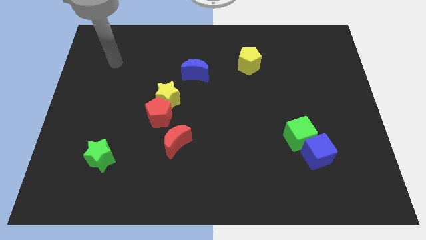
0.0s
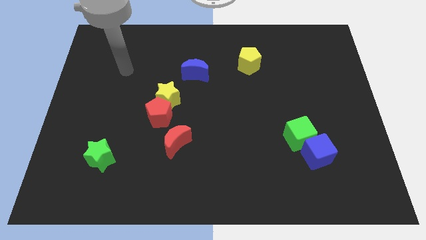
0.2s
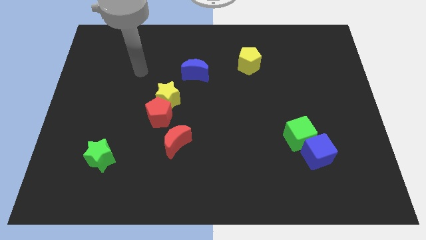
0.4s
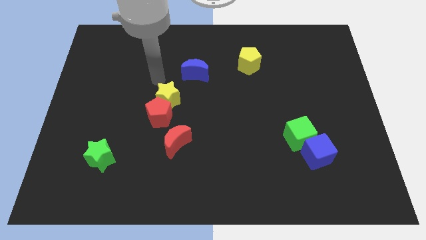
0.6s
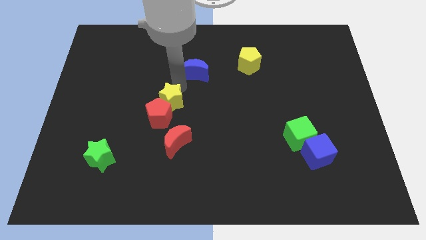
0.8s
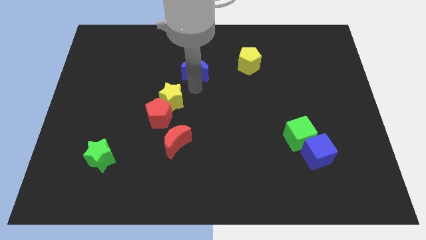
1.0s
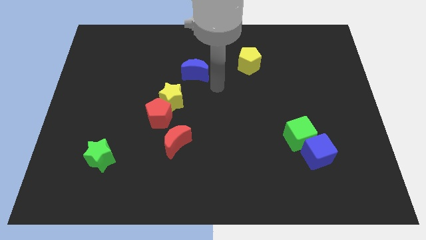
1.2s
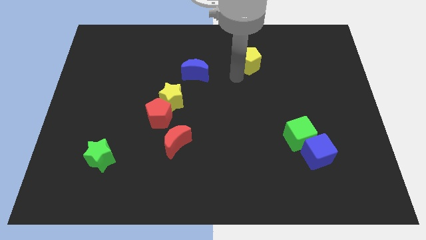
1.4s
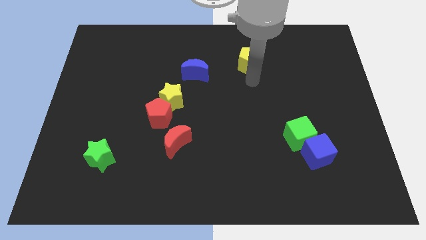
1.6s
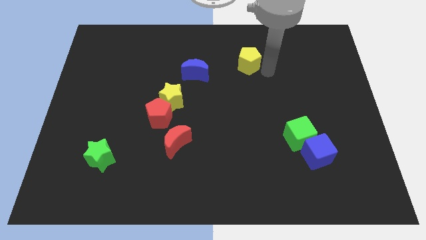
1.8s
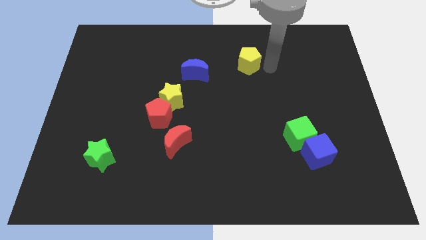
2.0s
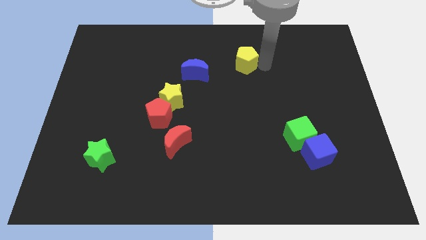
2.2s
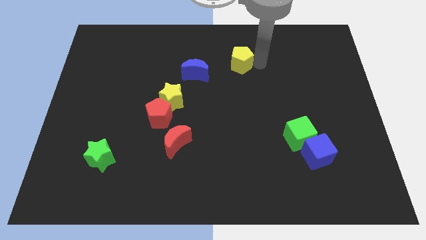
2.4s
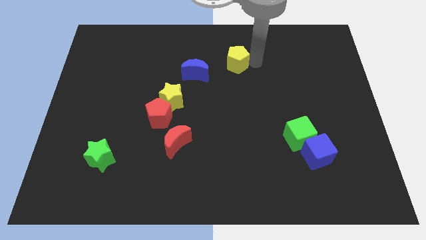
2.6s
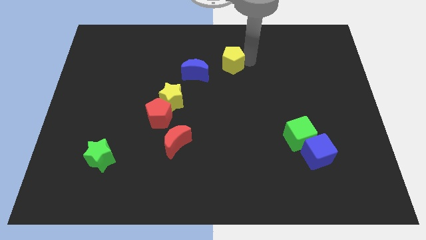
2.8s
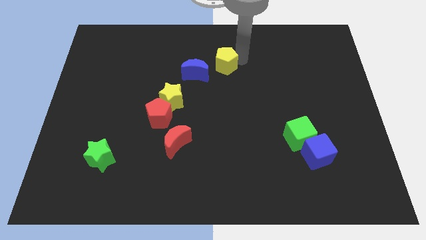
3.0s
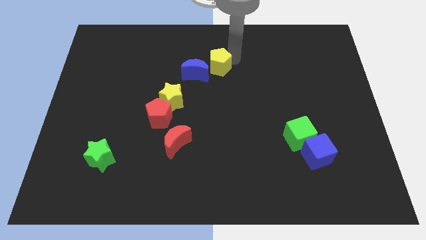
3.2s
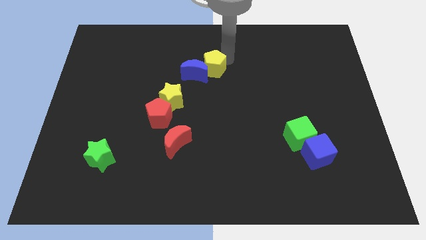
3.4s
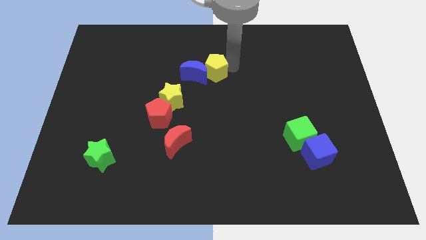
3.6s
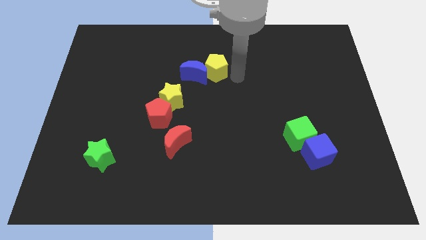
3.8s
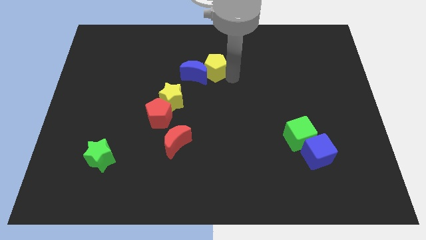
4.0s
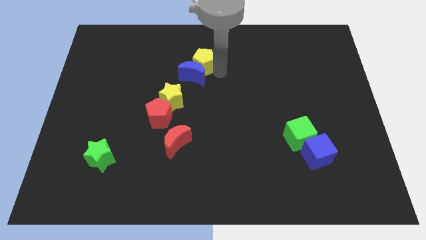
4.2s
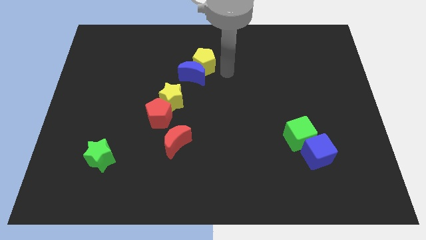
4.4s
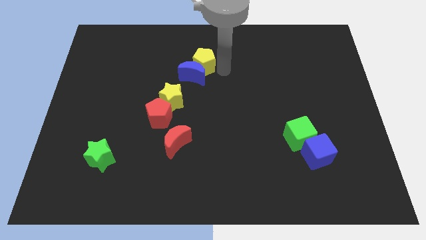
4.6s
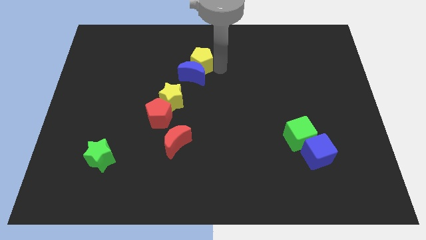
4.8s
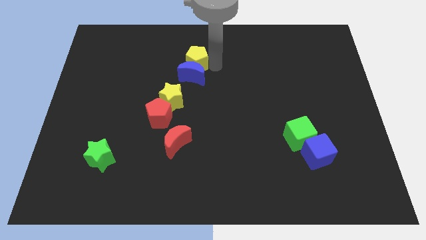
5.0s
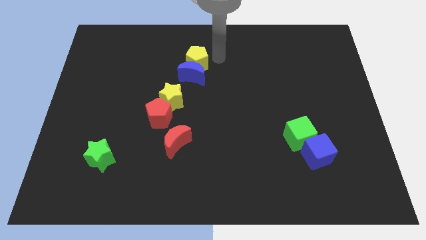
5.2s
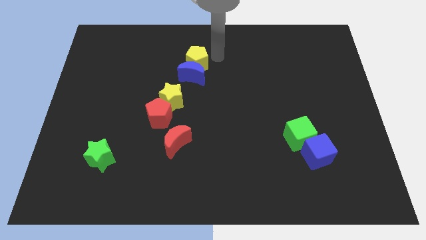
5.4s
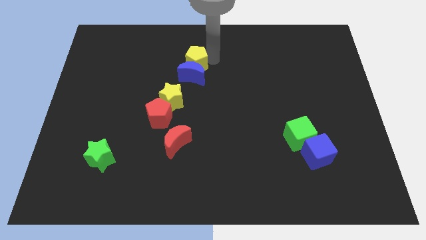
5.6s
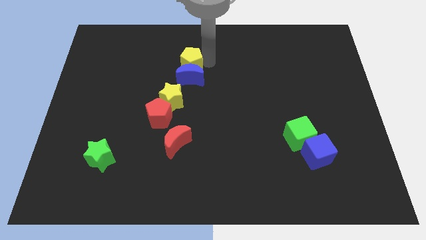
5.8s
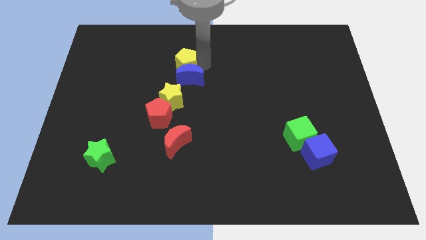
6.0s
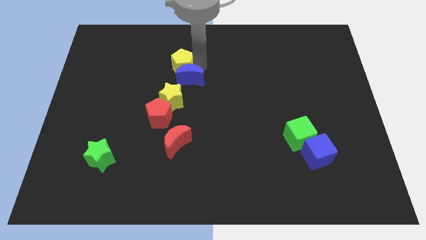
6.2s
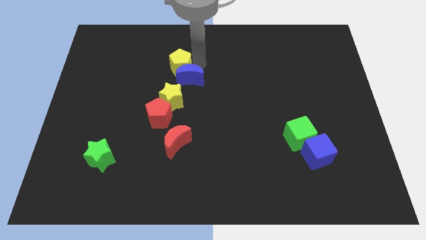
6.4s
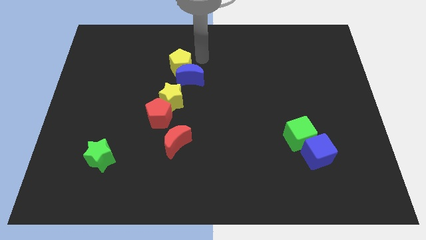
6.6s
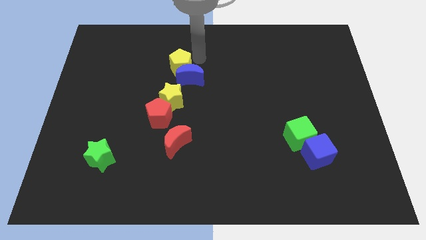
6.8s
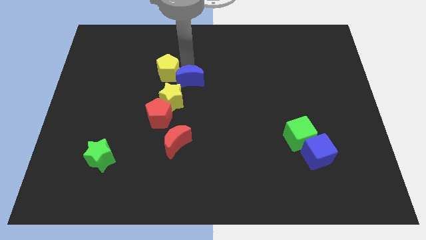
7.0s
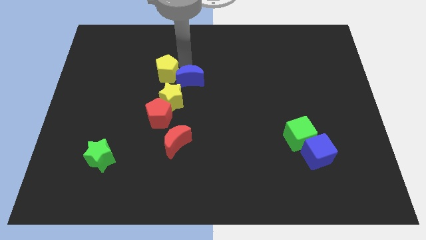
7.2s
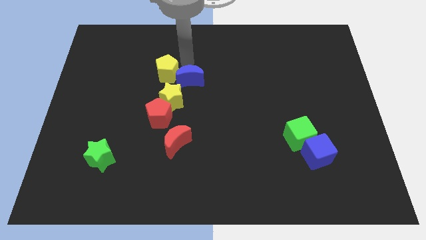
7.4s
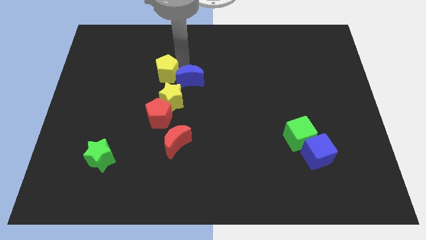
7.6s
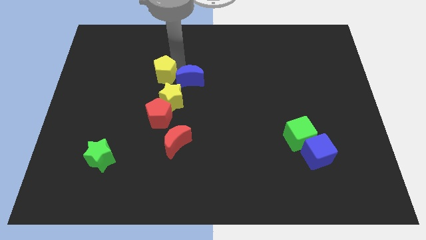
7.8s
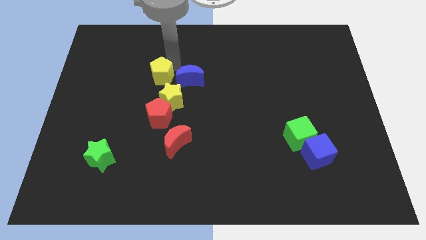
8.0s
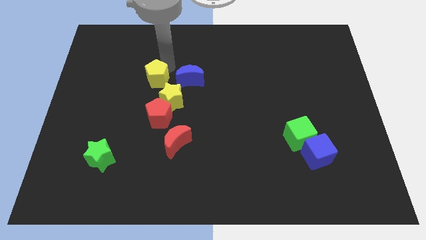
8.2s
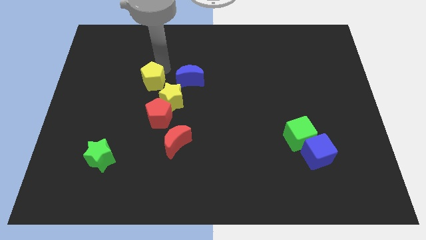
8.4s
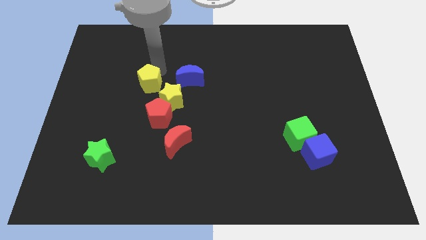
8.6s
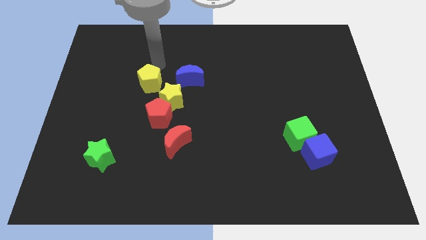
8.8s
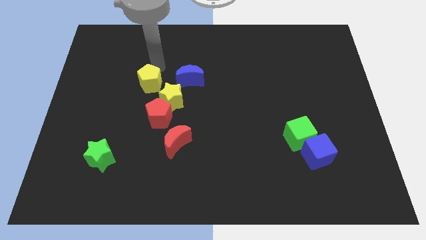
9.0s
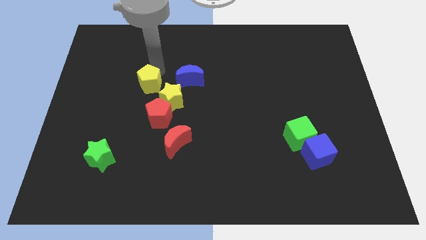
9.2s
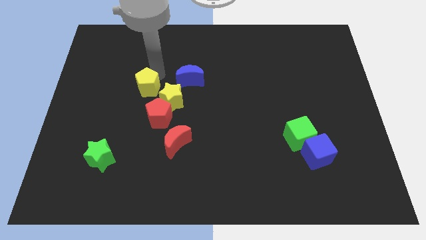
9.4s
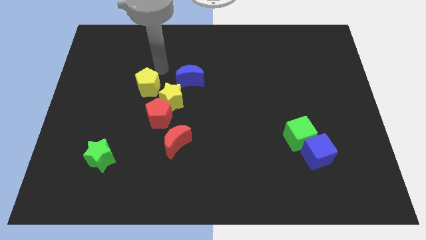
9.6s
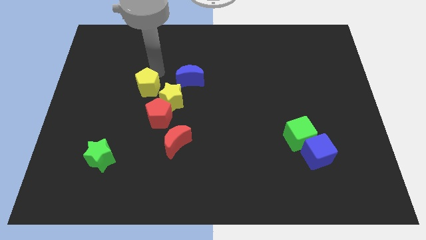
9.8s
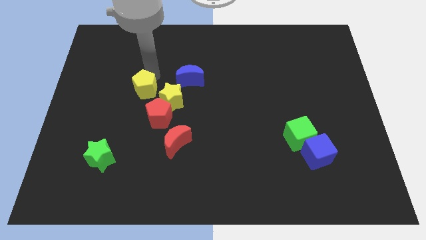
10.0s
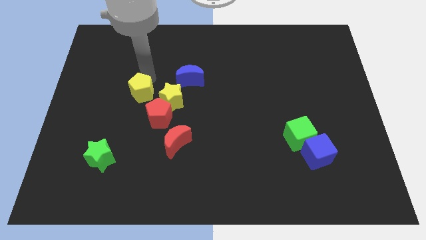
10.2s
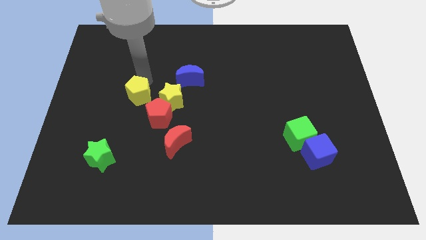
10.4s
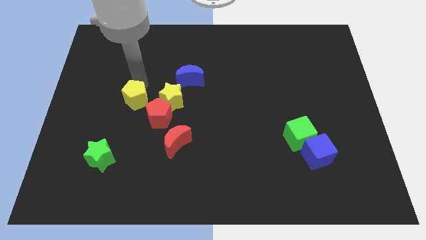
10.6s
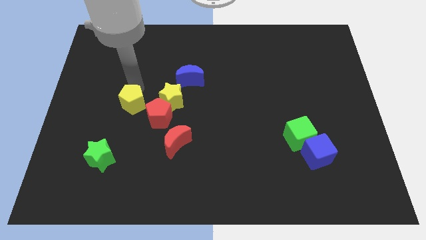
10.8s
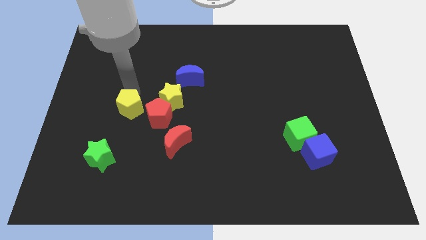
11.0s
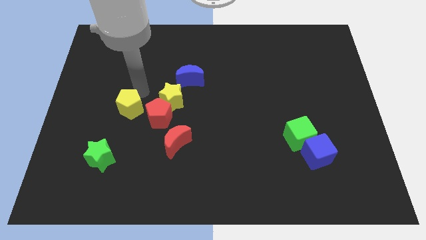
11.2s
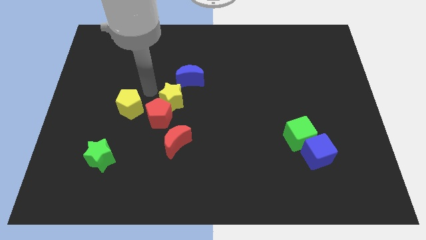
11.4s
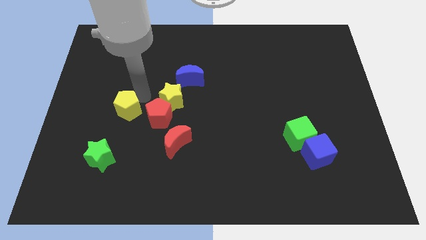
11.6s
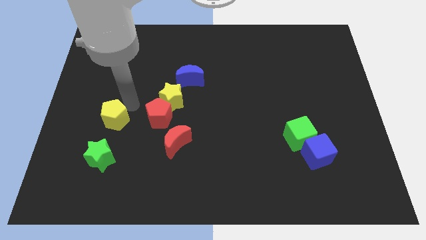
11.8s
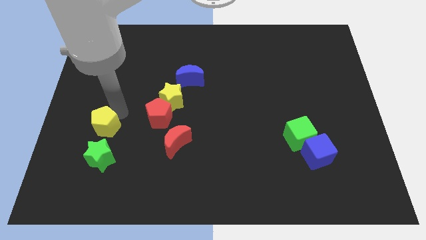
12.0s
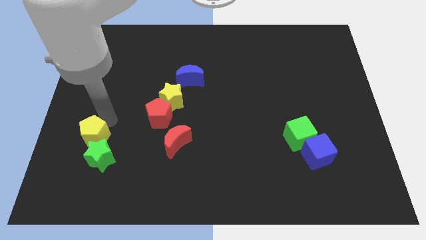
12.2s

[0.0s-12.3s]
slide the yellow pentagon towards the green star

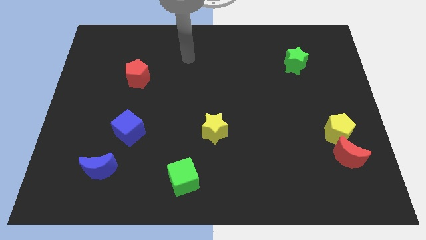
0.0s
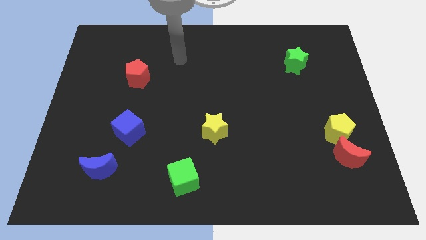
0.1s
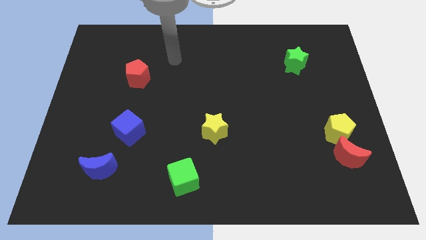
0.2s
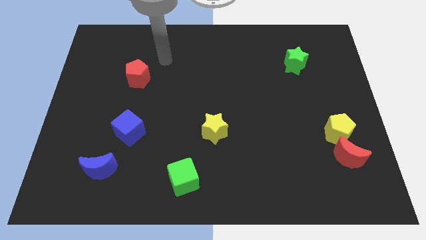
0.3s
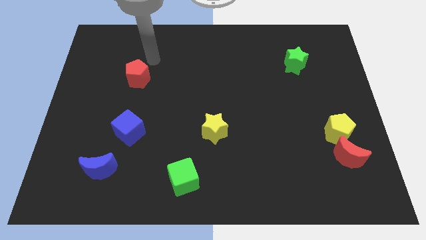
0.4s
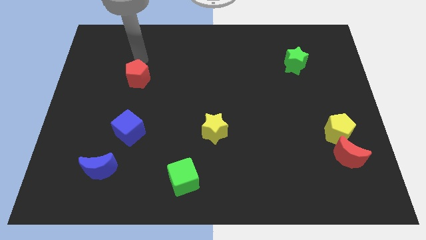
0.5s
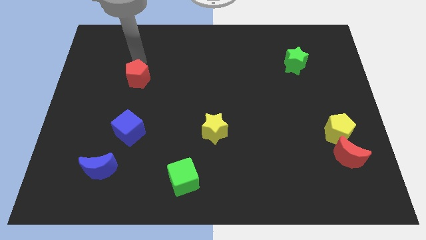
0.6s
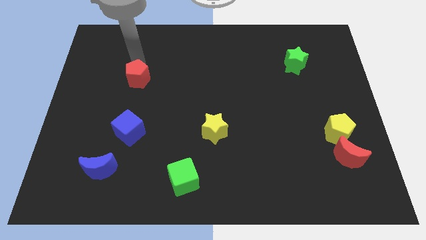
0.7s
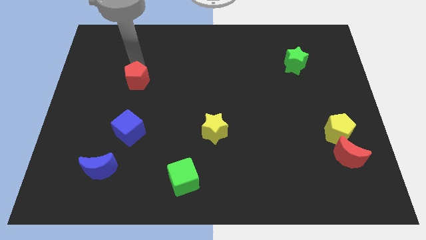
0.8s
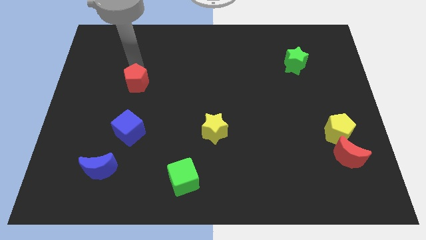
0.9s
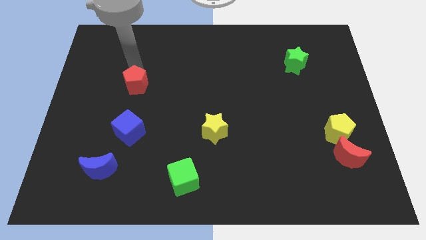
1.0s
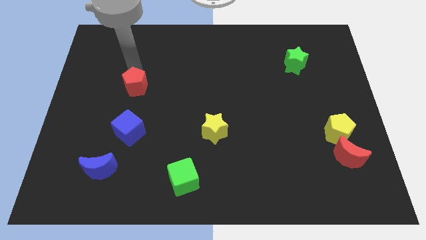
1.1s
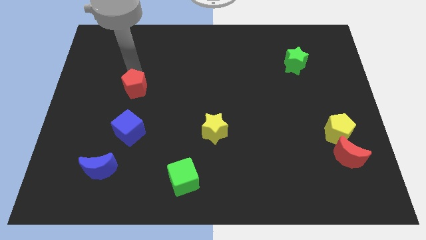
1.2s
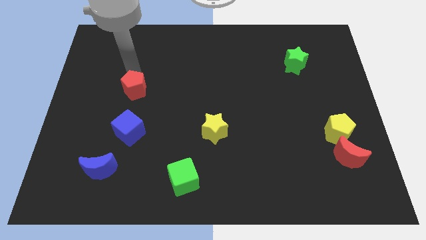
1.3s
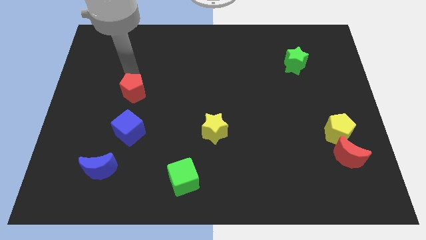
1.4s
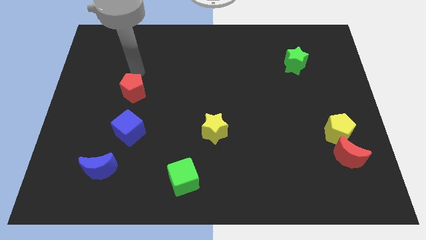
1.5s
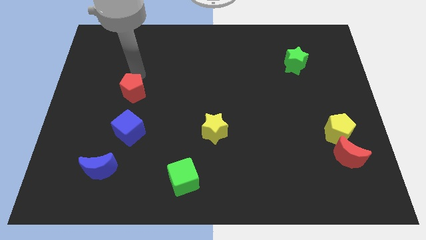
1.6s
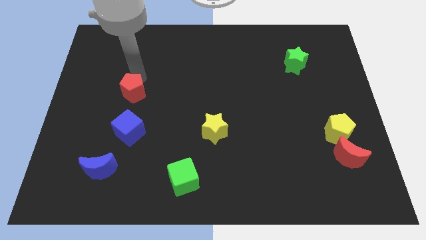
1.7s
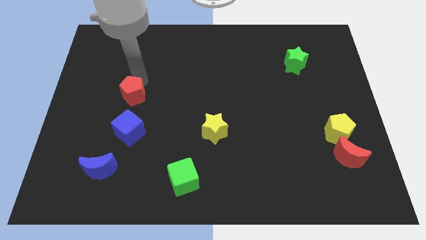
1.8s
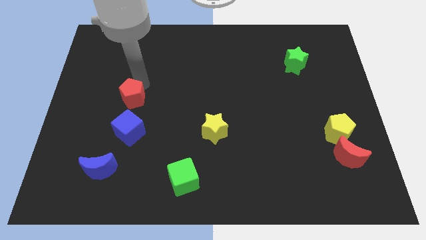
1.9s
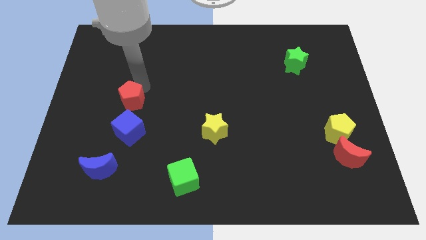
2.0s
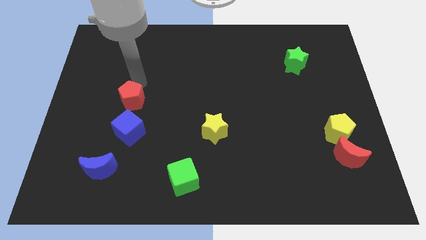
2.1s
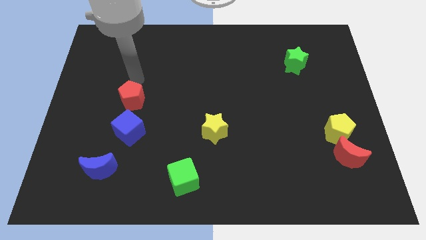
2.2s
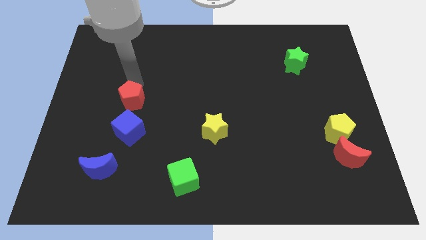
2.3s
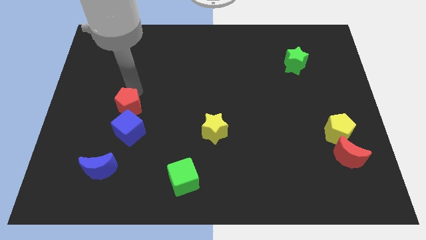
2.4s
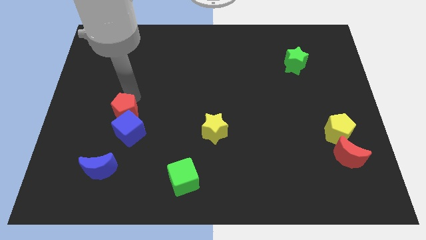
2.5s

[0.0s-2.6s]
put the red pentagon close to the blue cube
